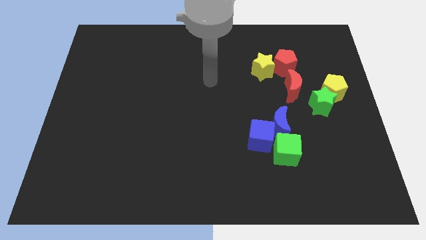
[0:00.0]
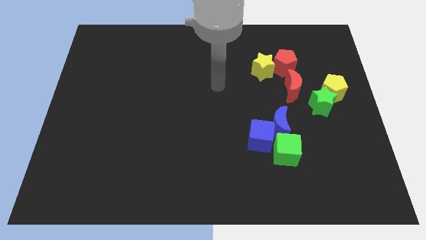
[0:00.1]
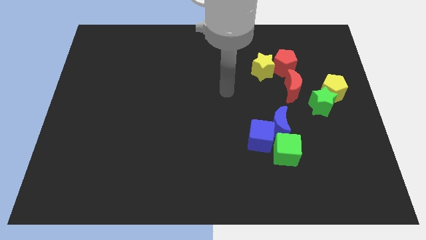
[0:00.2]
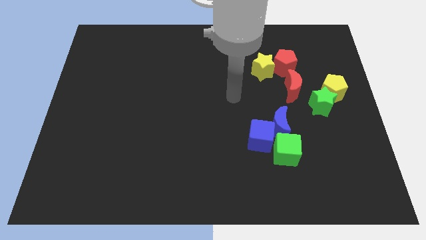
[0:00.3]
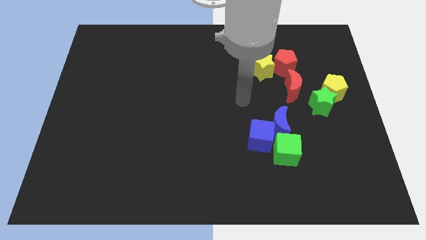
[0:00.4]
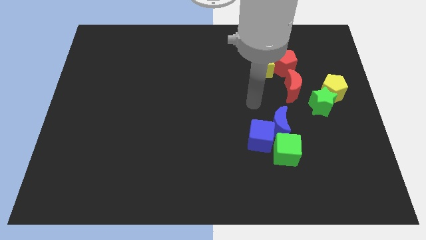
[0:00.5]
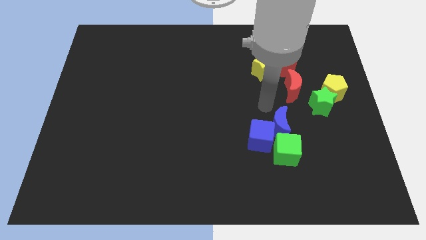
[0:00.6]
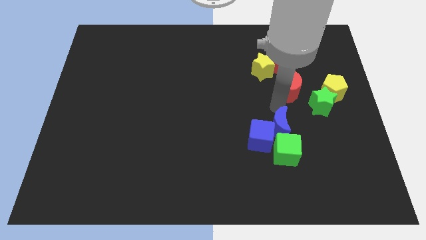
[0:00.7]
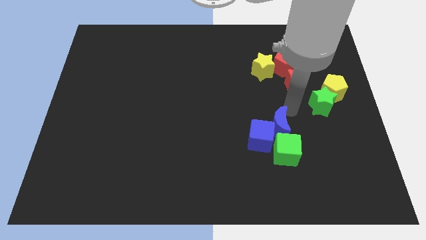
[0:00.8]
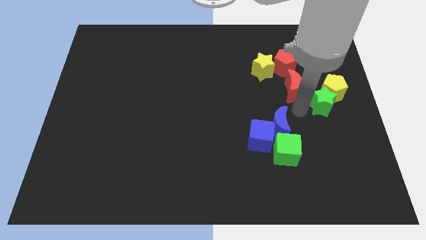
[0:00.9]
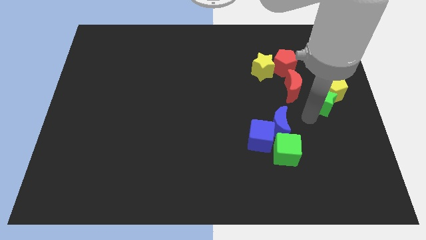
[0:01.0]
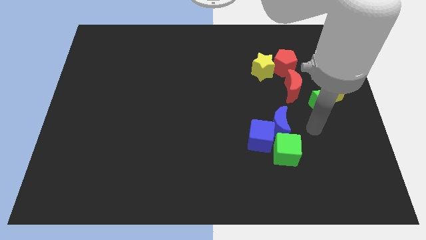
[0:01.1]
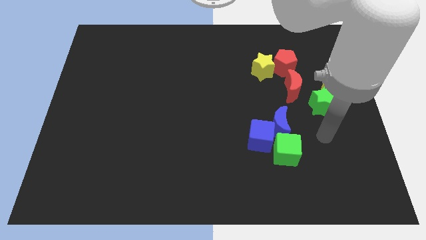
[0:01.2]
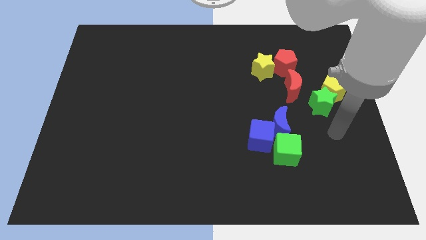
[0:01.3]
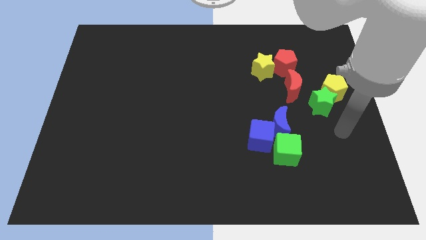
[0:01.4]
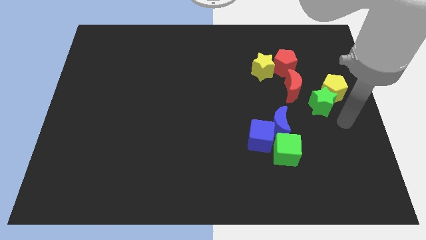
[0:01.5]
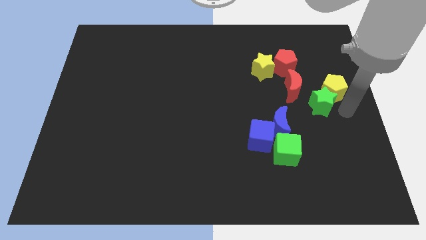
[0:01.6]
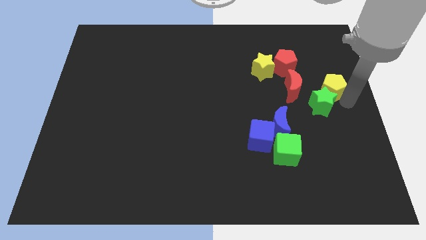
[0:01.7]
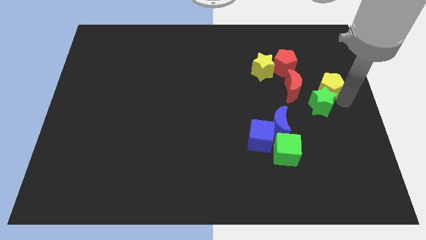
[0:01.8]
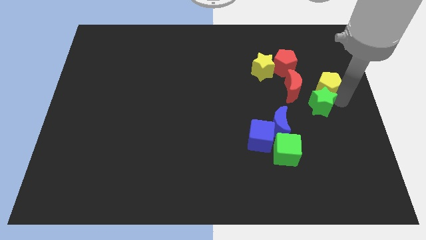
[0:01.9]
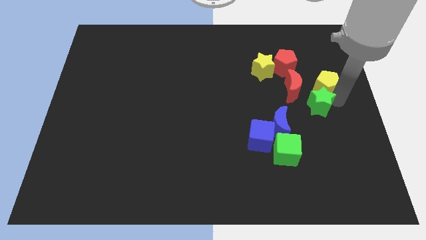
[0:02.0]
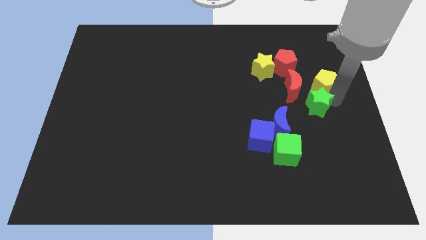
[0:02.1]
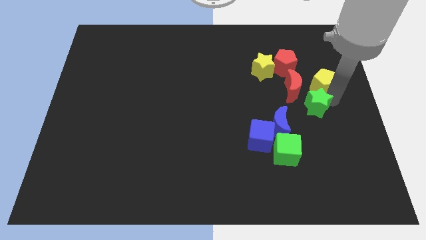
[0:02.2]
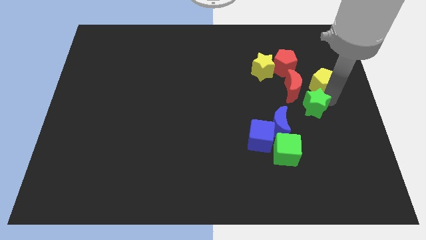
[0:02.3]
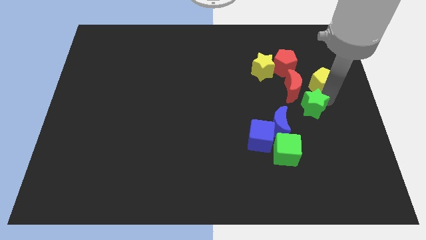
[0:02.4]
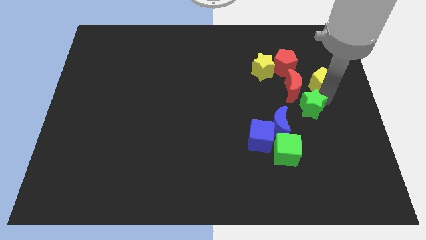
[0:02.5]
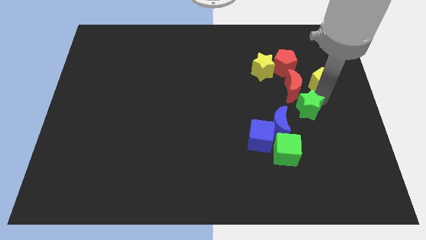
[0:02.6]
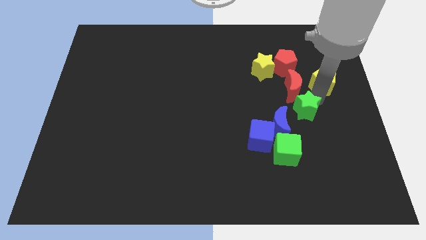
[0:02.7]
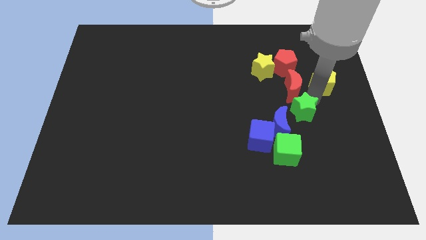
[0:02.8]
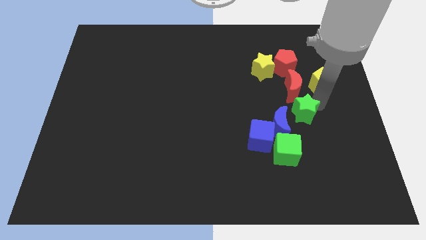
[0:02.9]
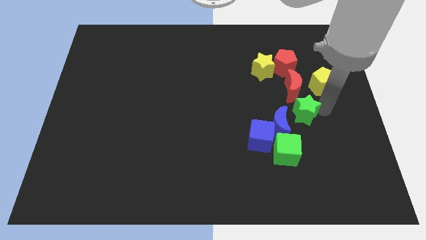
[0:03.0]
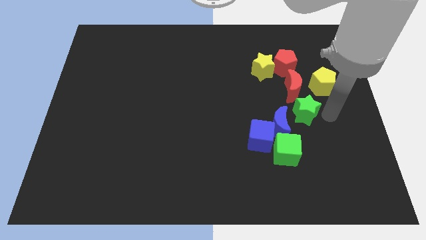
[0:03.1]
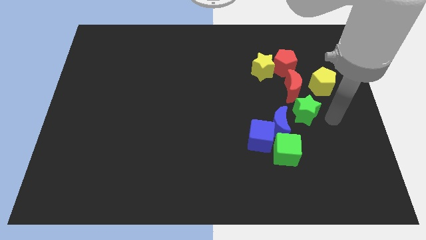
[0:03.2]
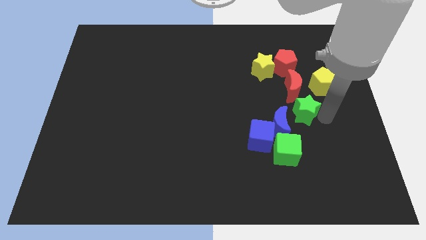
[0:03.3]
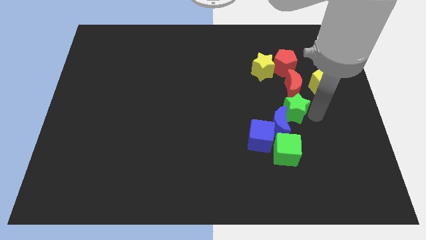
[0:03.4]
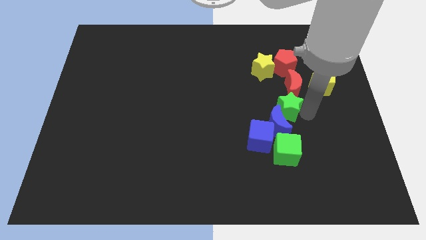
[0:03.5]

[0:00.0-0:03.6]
push the green star to the left a little

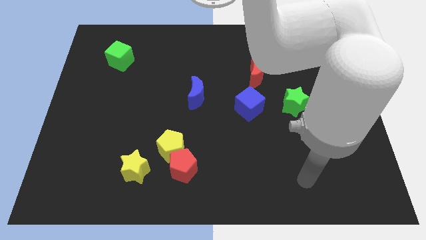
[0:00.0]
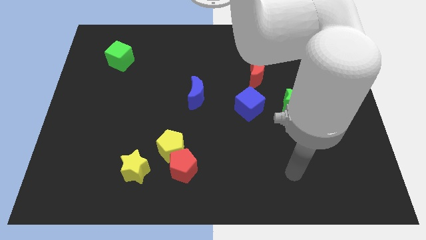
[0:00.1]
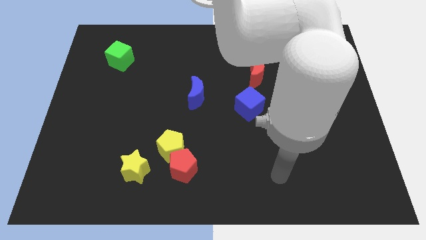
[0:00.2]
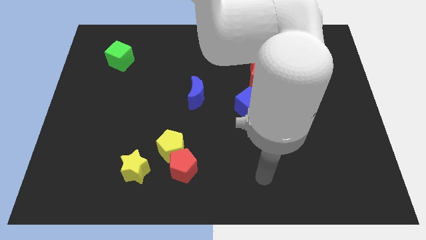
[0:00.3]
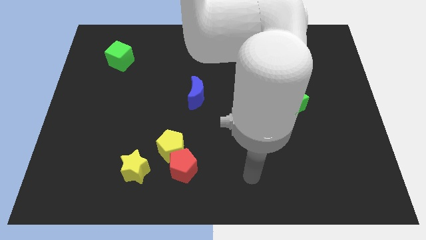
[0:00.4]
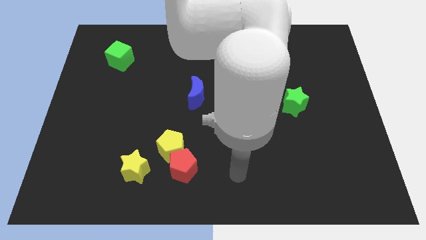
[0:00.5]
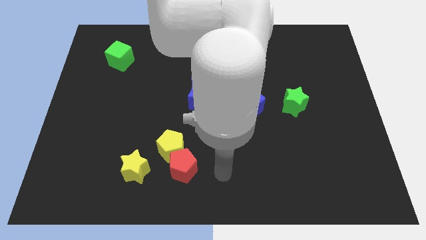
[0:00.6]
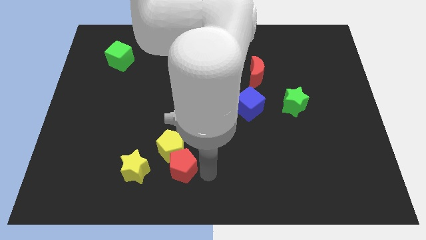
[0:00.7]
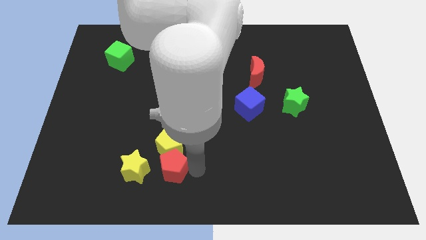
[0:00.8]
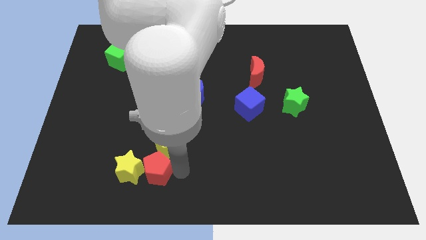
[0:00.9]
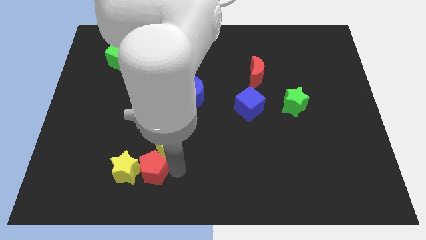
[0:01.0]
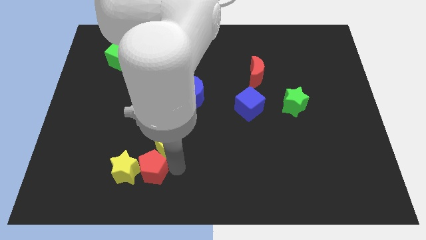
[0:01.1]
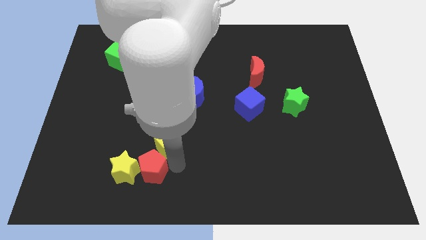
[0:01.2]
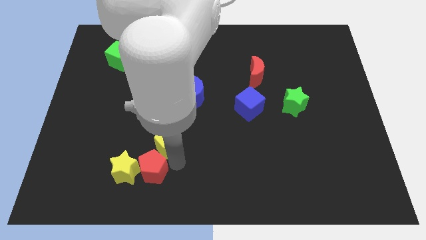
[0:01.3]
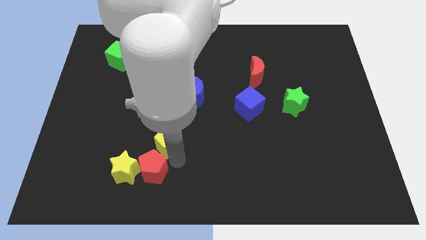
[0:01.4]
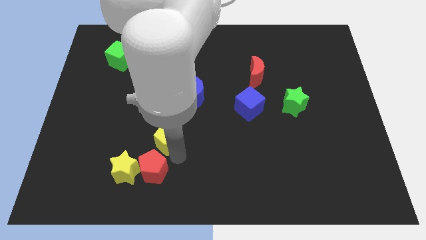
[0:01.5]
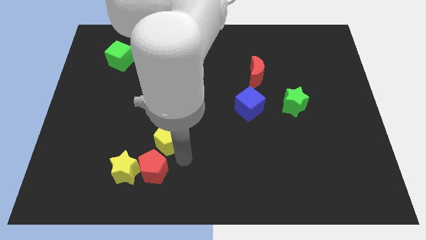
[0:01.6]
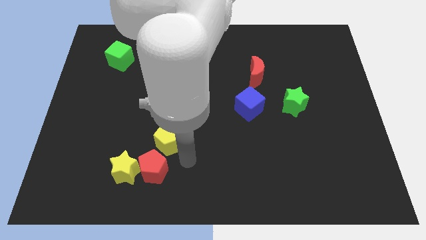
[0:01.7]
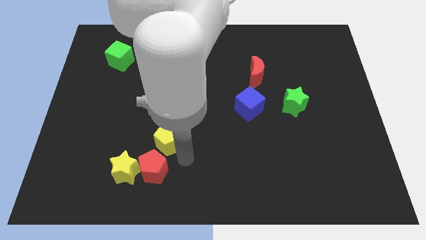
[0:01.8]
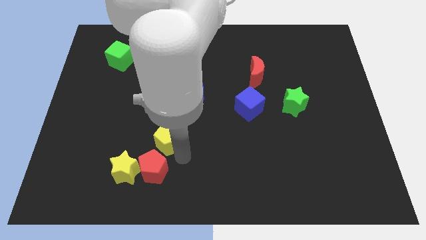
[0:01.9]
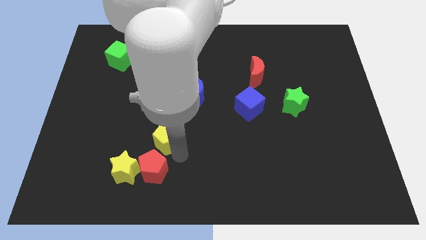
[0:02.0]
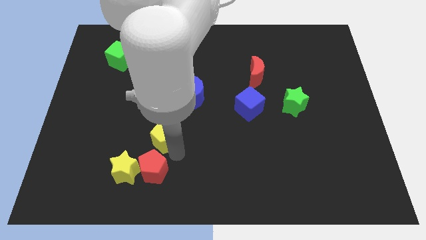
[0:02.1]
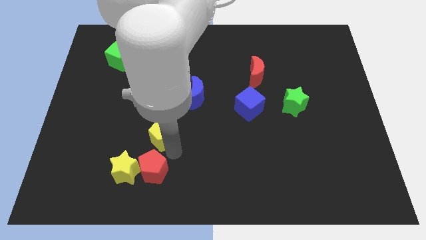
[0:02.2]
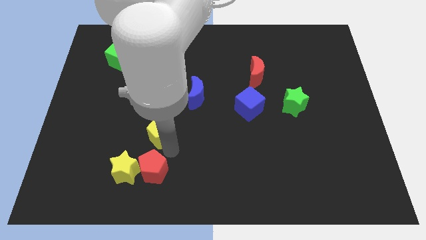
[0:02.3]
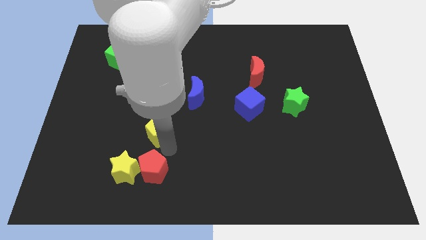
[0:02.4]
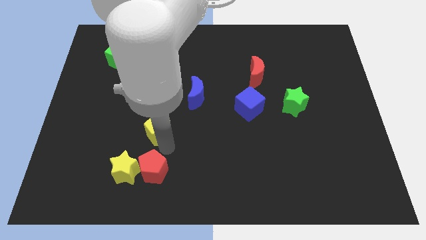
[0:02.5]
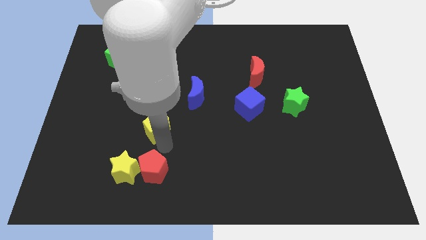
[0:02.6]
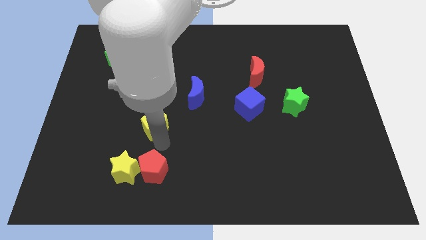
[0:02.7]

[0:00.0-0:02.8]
slightly slide the yellow pentagon upwards and to the left diagonally

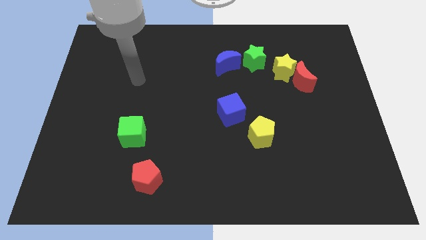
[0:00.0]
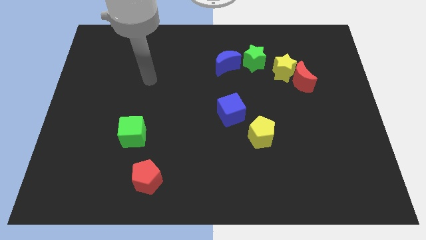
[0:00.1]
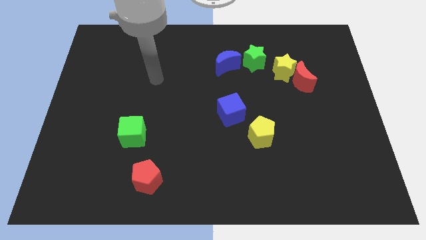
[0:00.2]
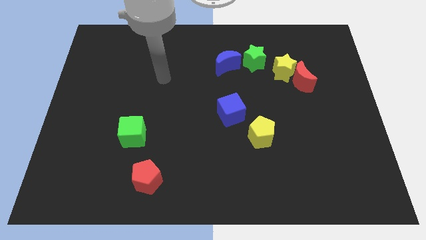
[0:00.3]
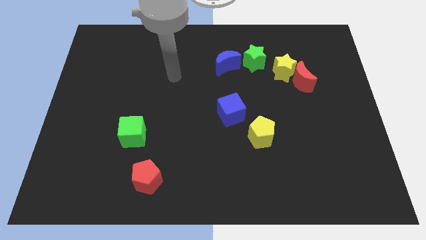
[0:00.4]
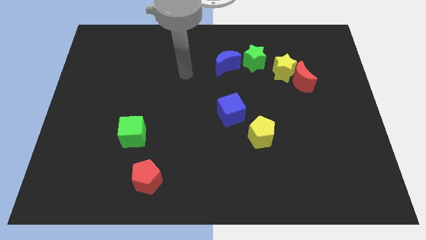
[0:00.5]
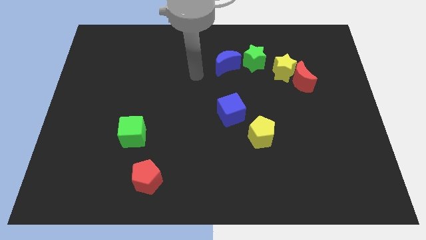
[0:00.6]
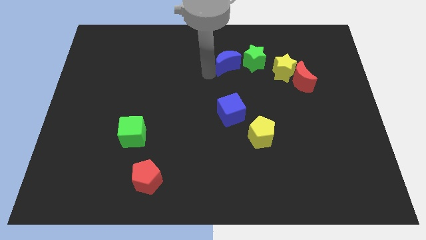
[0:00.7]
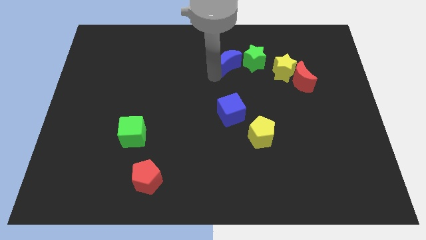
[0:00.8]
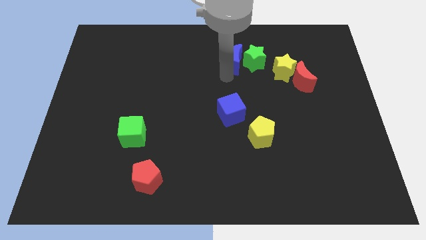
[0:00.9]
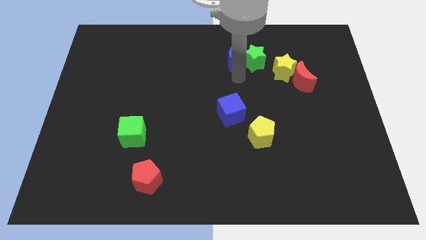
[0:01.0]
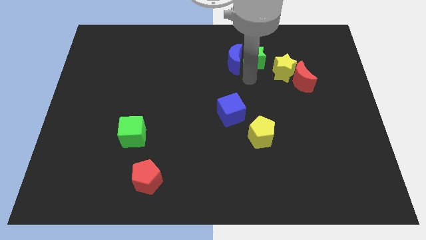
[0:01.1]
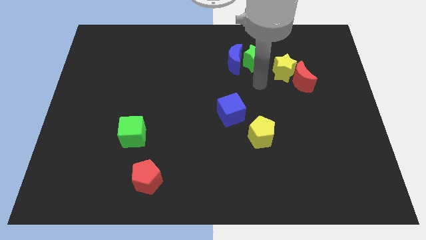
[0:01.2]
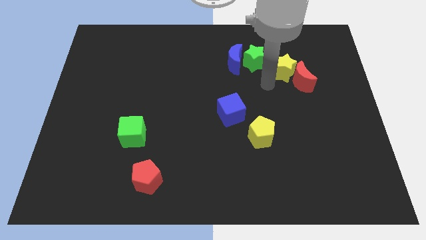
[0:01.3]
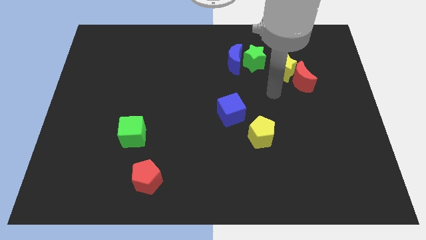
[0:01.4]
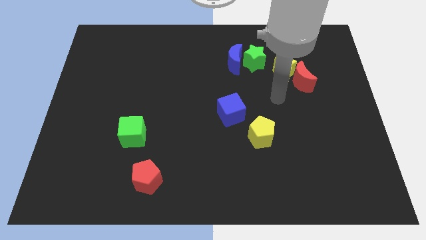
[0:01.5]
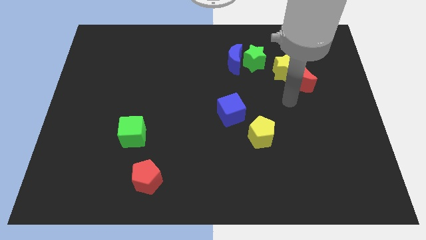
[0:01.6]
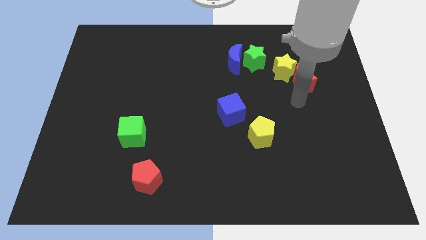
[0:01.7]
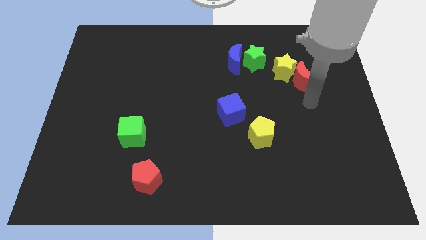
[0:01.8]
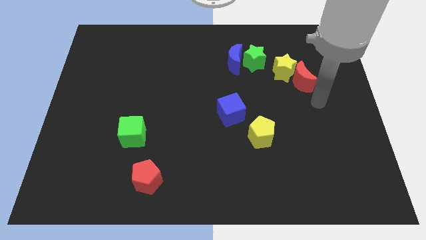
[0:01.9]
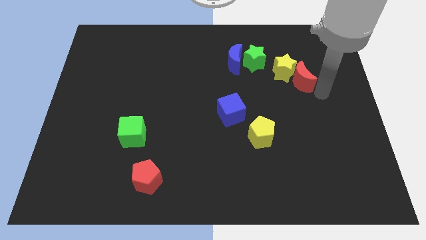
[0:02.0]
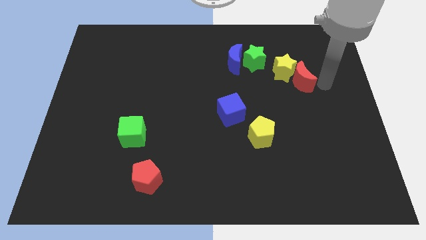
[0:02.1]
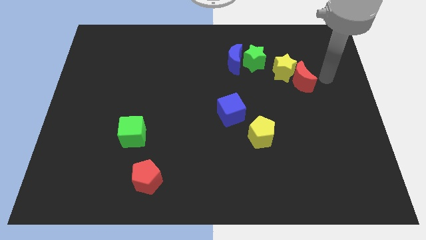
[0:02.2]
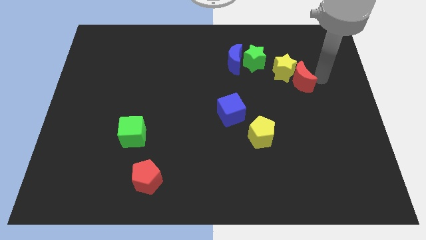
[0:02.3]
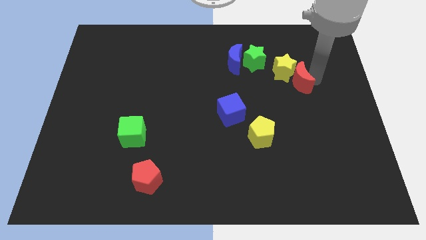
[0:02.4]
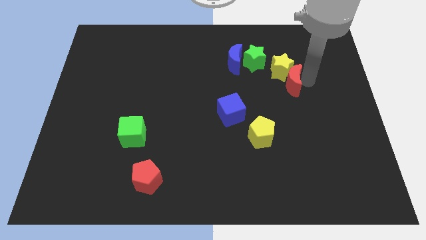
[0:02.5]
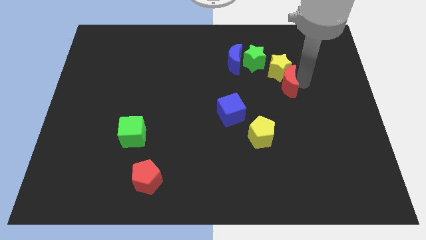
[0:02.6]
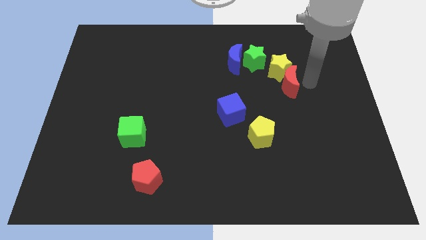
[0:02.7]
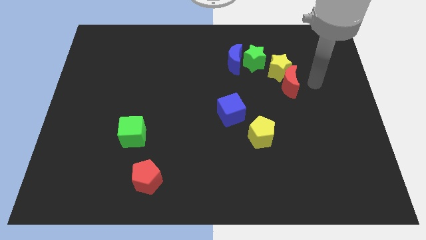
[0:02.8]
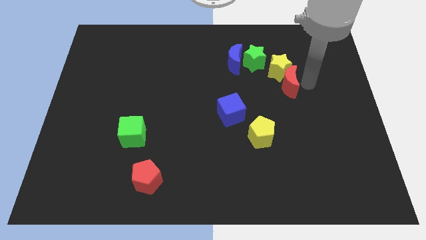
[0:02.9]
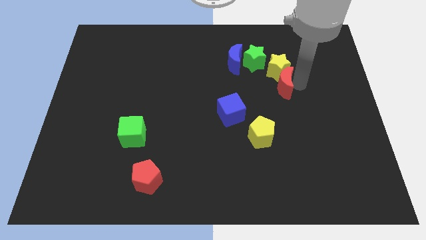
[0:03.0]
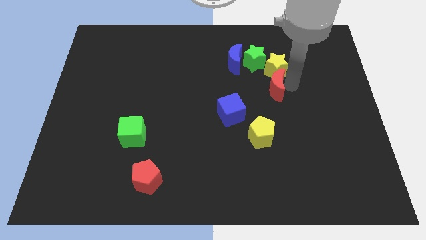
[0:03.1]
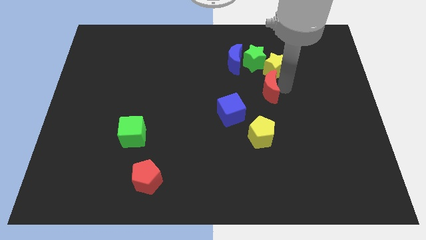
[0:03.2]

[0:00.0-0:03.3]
push the red moon left a little bit
